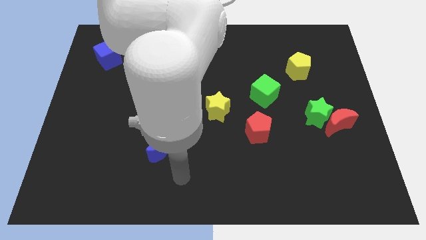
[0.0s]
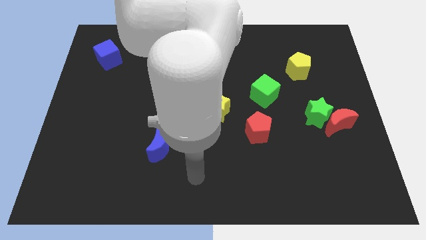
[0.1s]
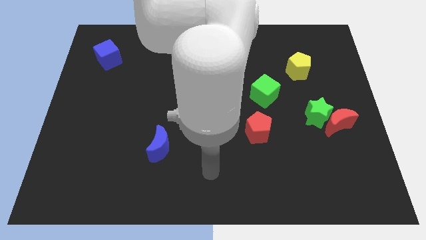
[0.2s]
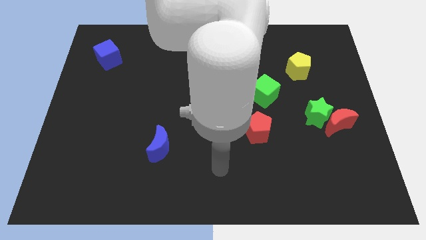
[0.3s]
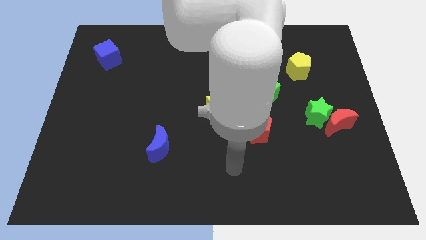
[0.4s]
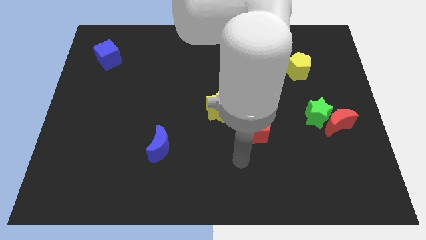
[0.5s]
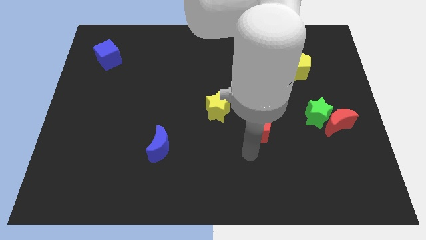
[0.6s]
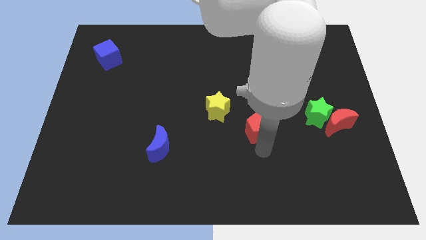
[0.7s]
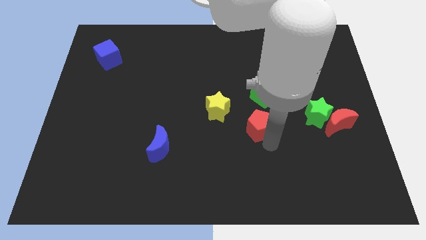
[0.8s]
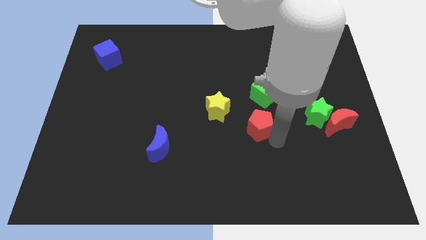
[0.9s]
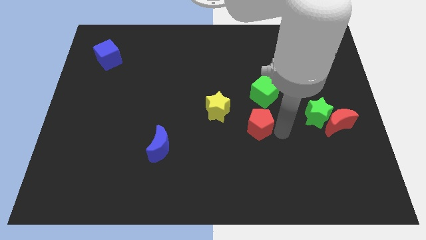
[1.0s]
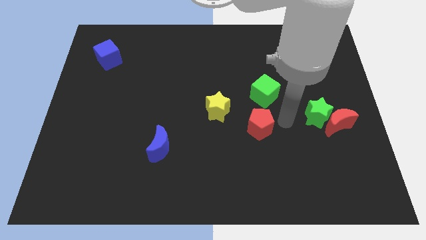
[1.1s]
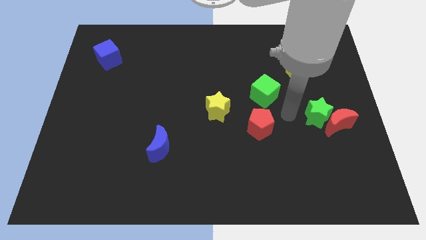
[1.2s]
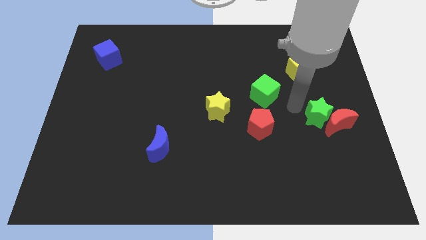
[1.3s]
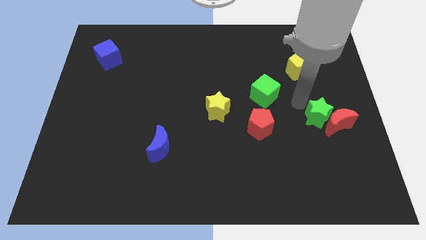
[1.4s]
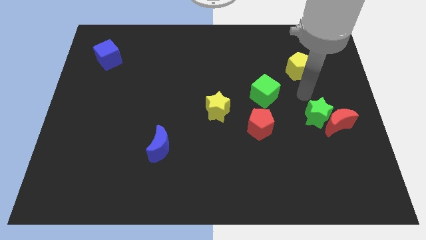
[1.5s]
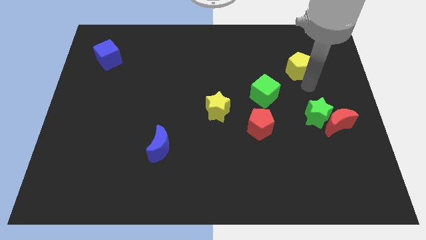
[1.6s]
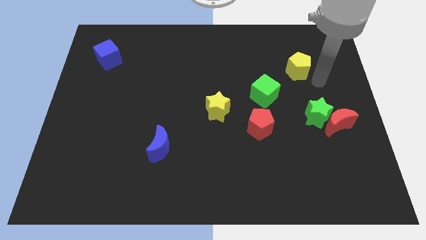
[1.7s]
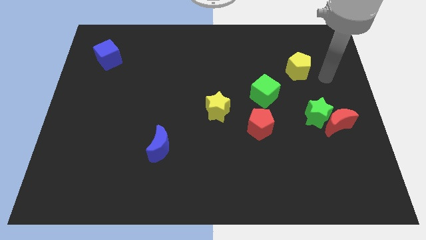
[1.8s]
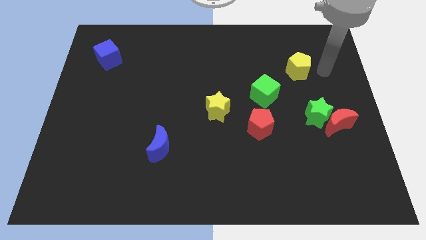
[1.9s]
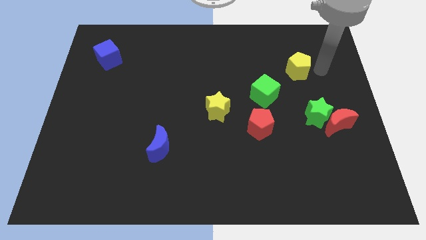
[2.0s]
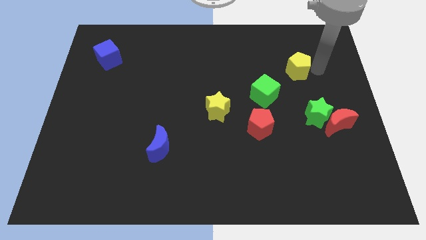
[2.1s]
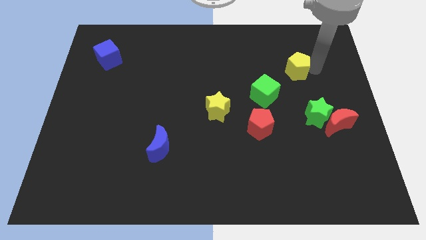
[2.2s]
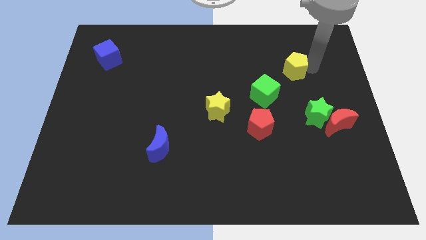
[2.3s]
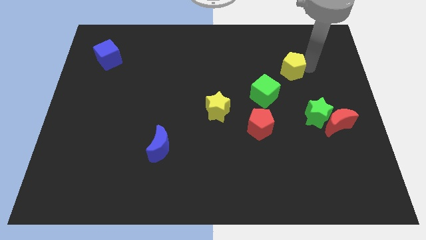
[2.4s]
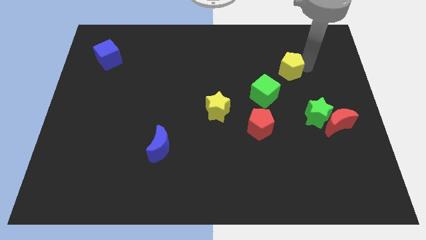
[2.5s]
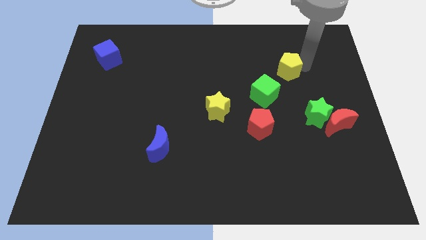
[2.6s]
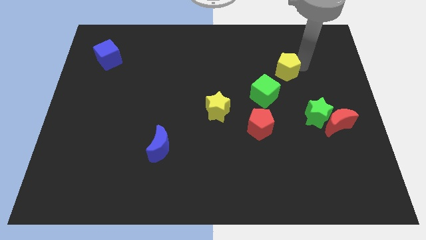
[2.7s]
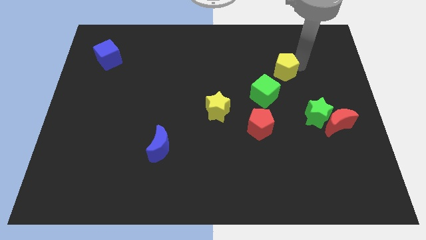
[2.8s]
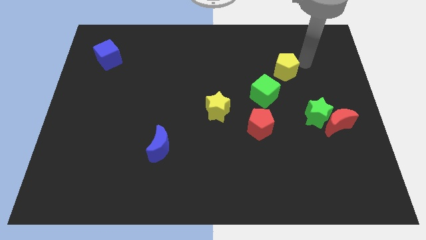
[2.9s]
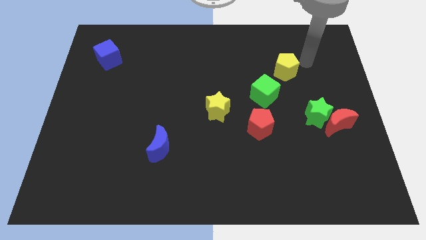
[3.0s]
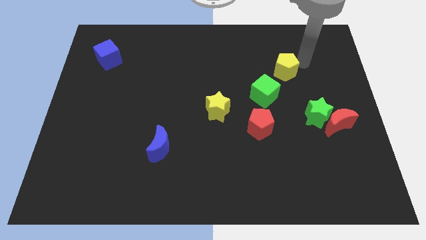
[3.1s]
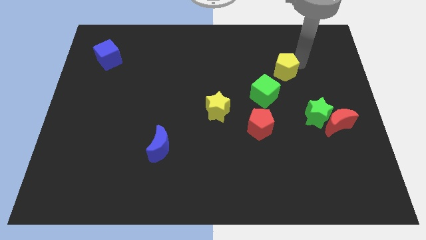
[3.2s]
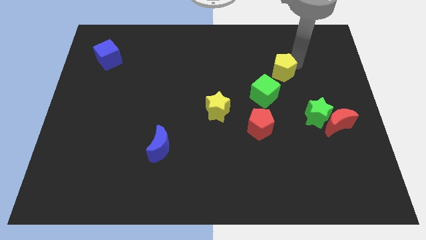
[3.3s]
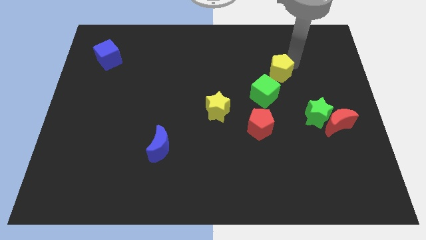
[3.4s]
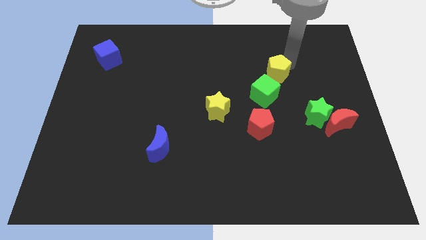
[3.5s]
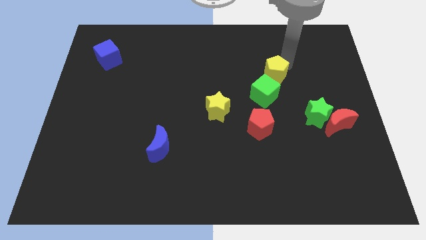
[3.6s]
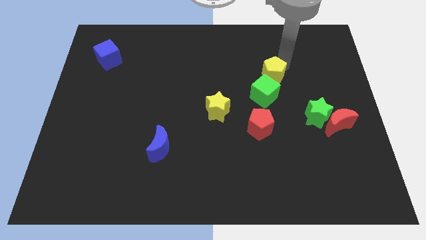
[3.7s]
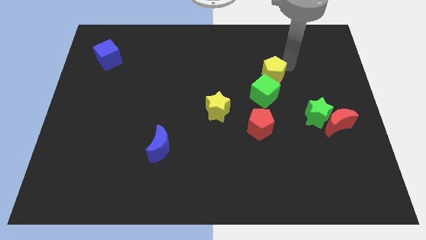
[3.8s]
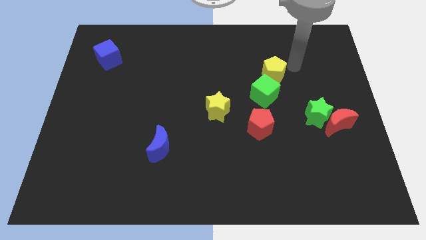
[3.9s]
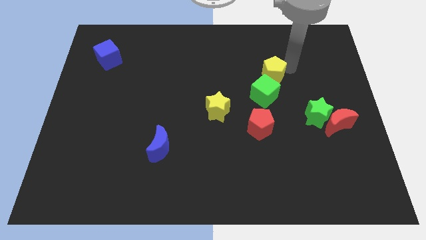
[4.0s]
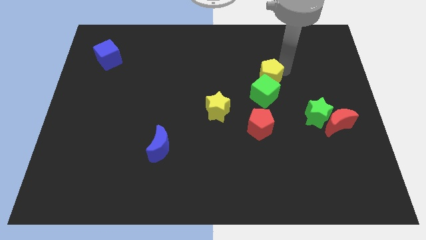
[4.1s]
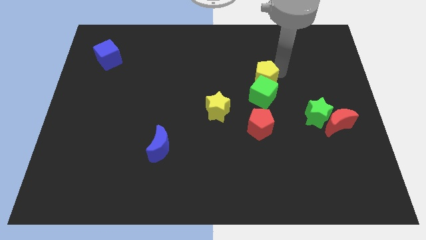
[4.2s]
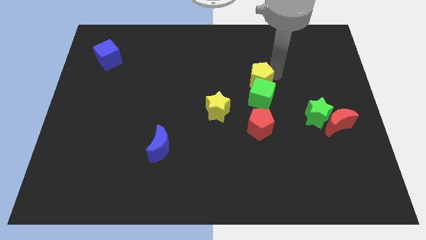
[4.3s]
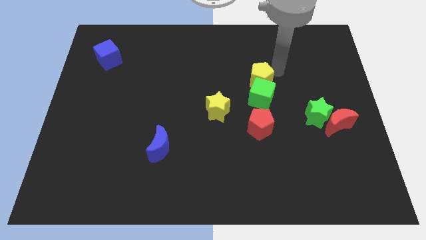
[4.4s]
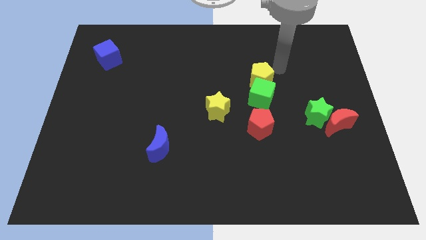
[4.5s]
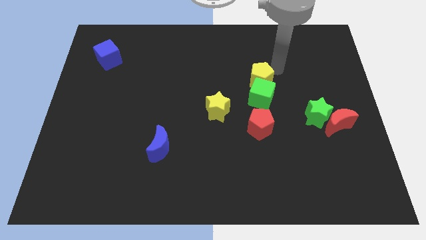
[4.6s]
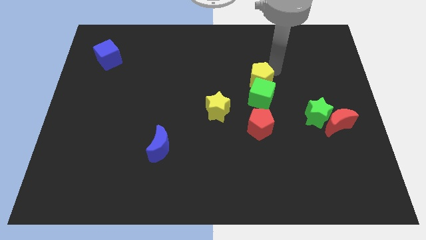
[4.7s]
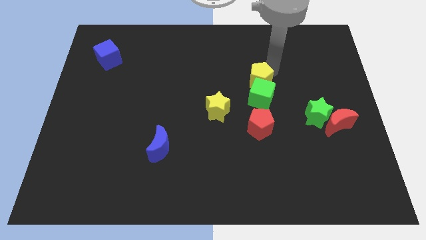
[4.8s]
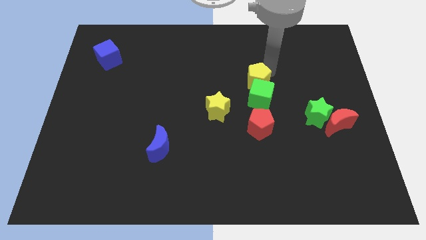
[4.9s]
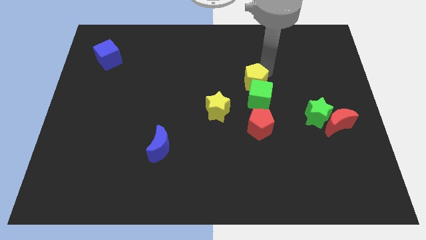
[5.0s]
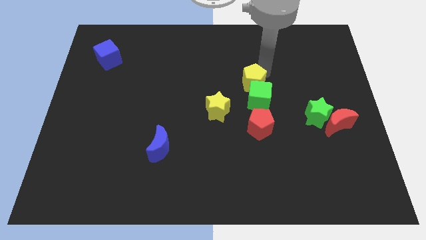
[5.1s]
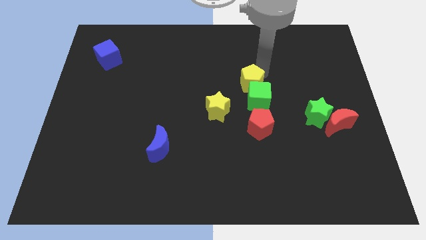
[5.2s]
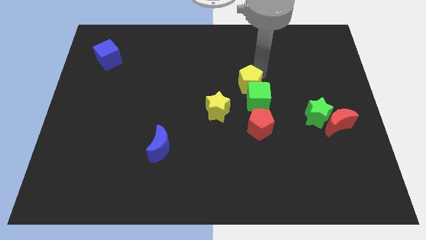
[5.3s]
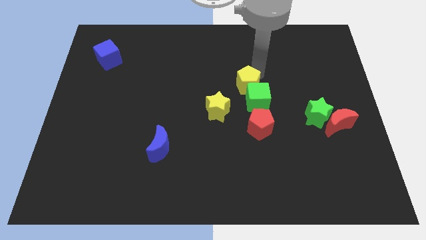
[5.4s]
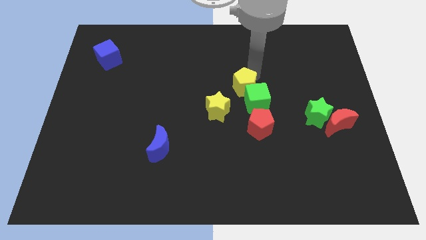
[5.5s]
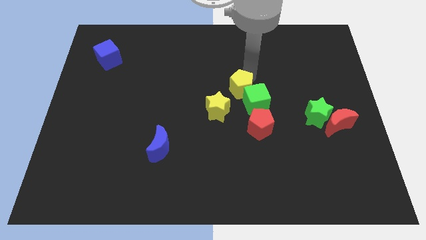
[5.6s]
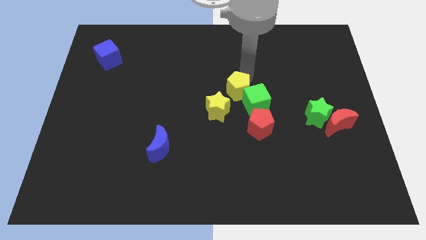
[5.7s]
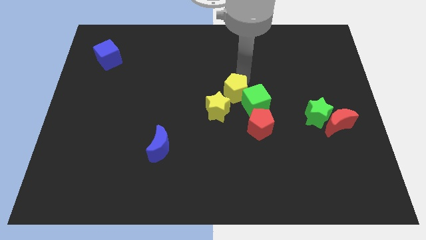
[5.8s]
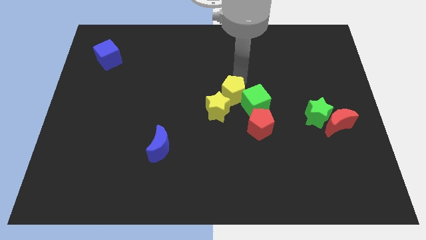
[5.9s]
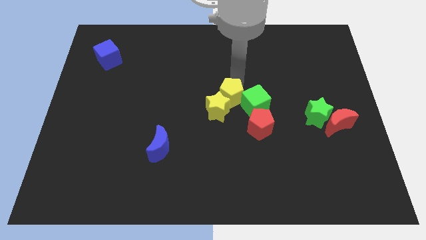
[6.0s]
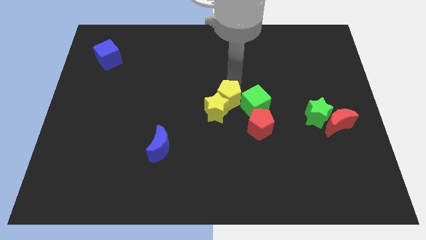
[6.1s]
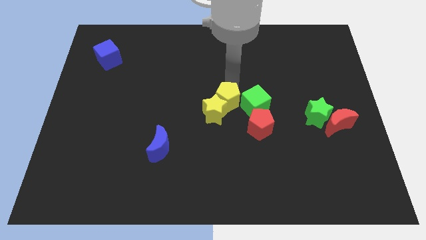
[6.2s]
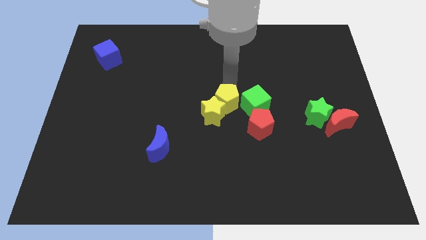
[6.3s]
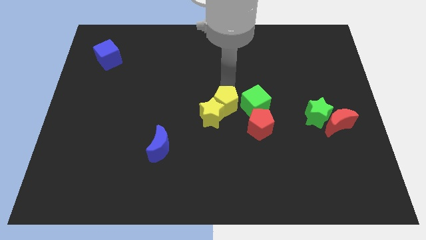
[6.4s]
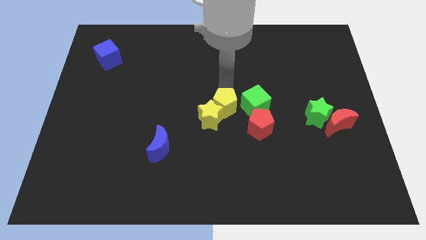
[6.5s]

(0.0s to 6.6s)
push the yellow pentagon diagonally down and to the left of the green cube
